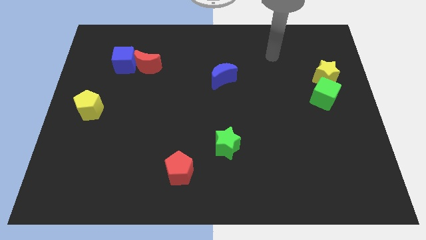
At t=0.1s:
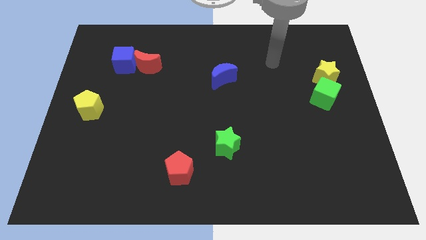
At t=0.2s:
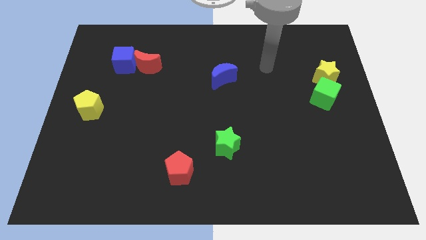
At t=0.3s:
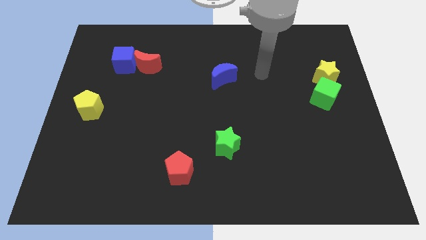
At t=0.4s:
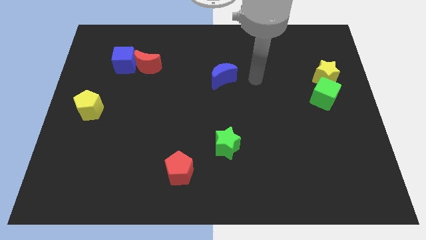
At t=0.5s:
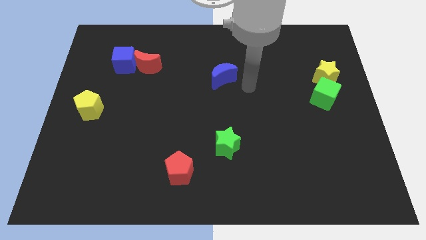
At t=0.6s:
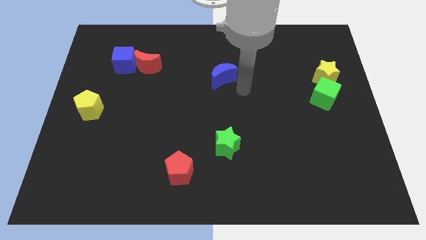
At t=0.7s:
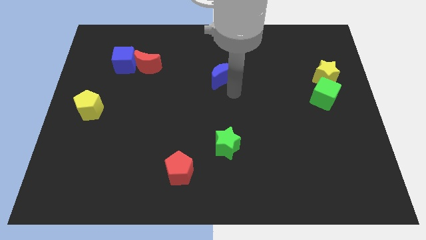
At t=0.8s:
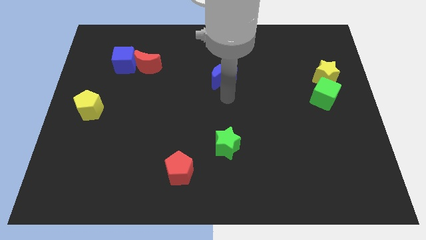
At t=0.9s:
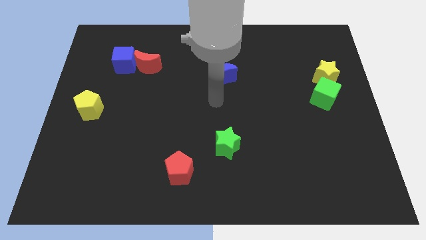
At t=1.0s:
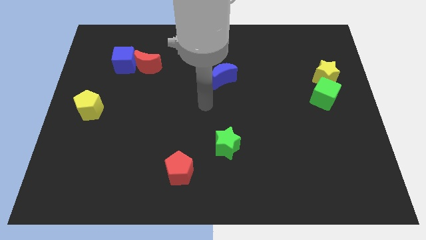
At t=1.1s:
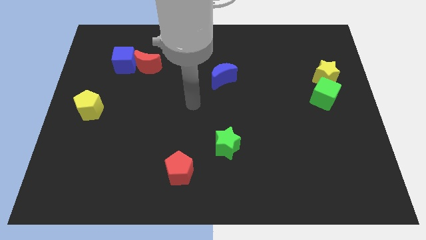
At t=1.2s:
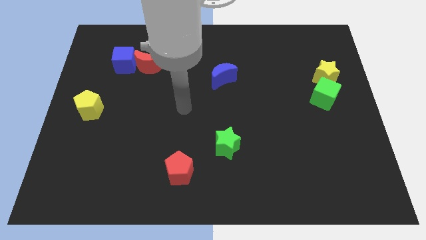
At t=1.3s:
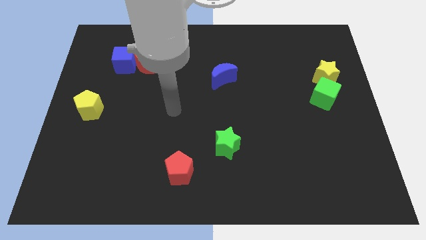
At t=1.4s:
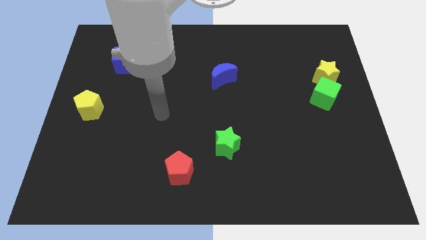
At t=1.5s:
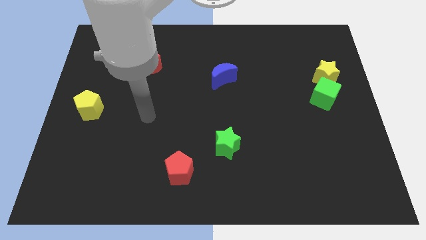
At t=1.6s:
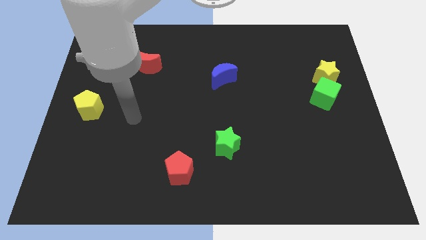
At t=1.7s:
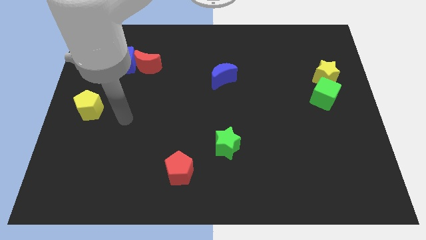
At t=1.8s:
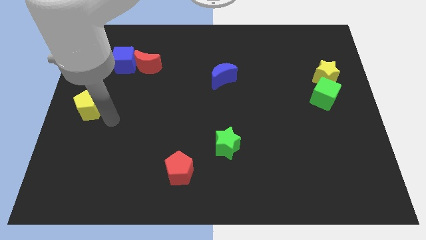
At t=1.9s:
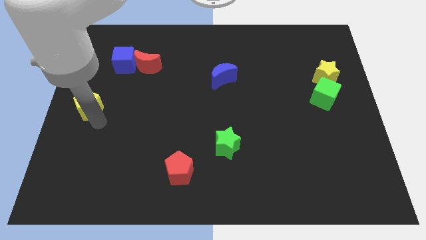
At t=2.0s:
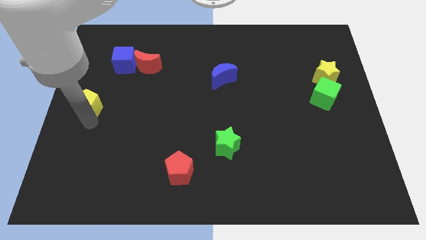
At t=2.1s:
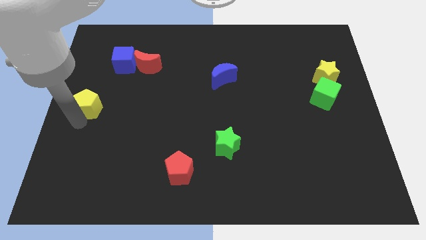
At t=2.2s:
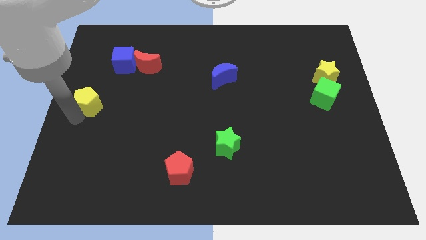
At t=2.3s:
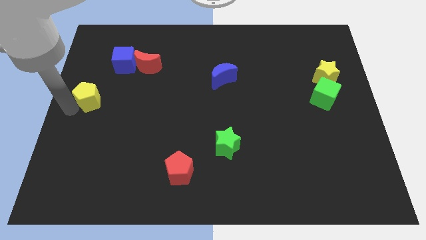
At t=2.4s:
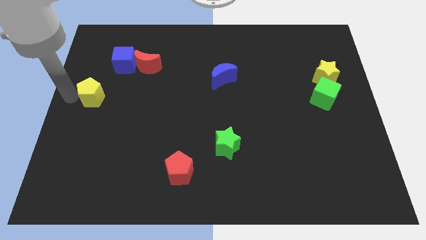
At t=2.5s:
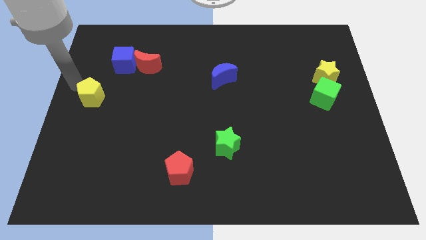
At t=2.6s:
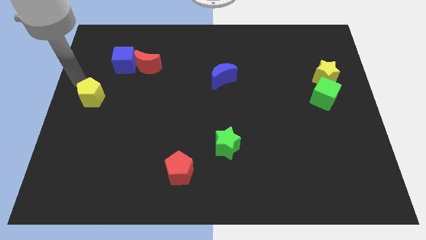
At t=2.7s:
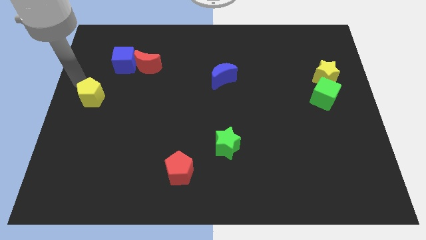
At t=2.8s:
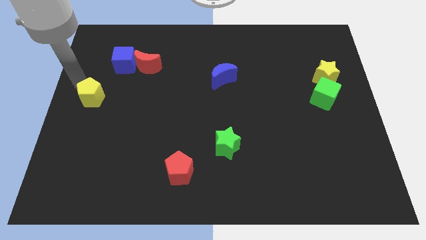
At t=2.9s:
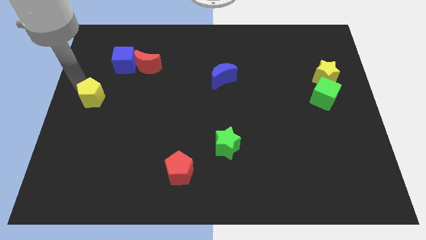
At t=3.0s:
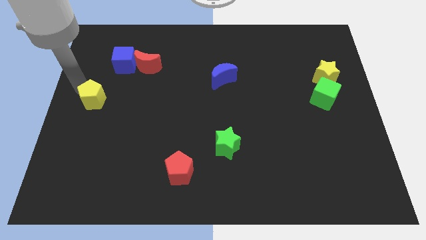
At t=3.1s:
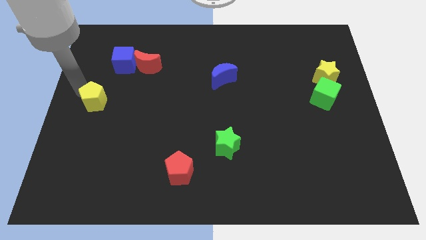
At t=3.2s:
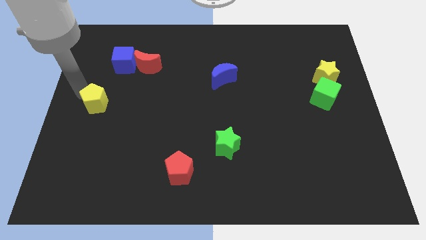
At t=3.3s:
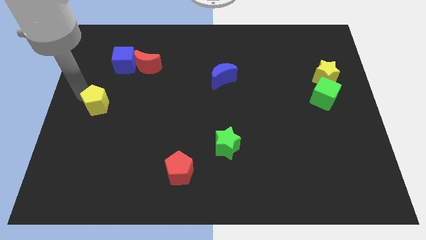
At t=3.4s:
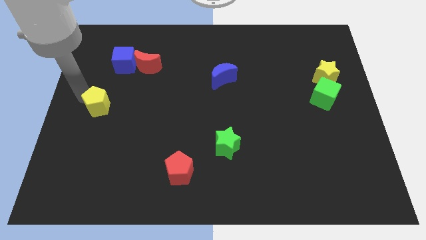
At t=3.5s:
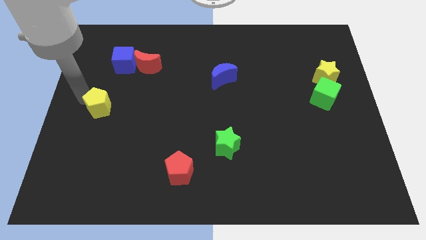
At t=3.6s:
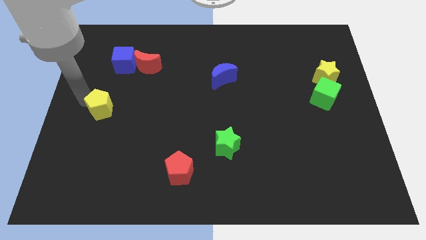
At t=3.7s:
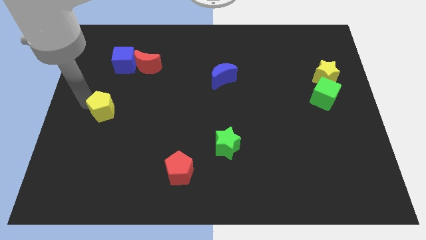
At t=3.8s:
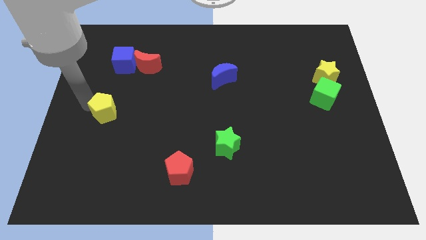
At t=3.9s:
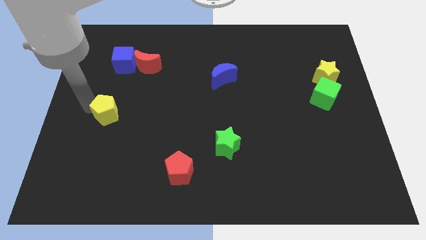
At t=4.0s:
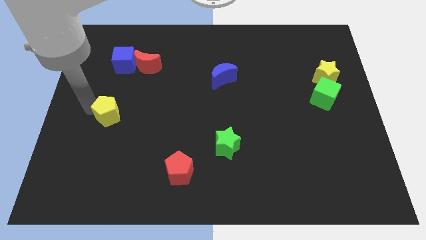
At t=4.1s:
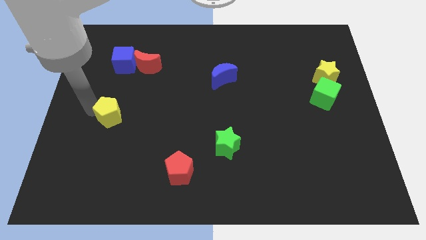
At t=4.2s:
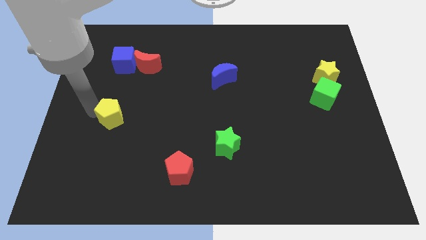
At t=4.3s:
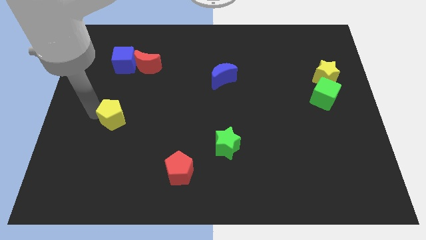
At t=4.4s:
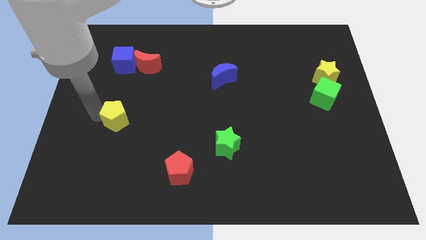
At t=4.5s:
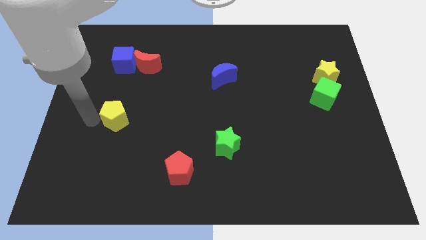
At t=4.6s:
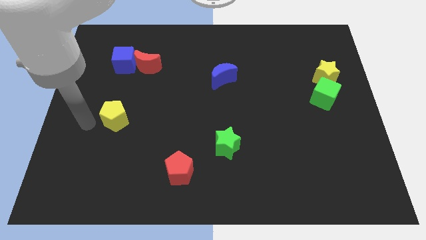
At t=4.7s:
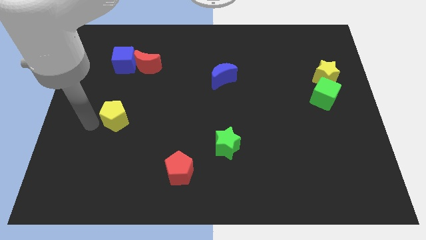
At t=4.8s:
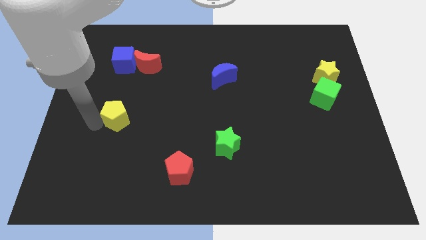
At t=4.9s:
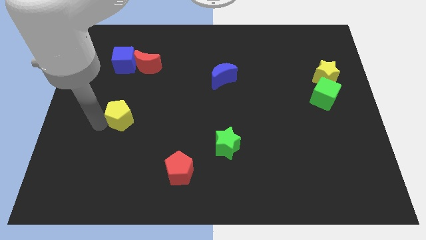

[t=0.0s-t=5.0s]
slightly move the yellow pentagon to the right

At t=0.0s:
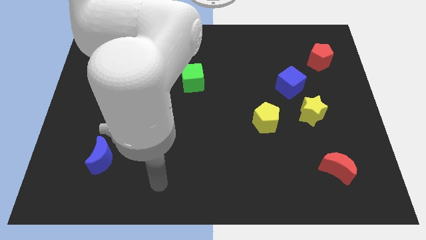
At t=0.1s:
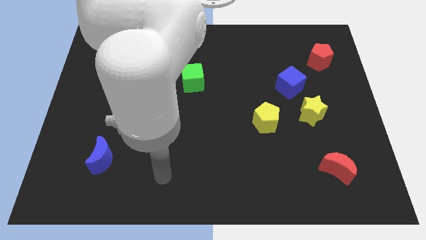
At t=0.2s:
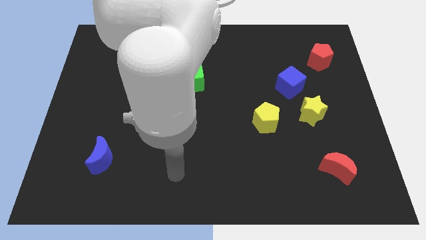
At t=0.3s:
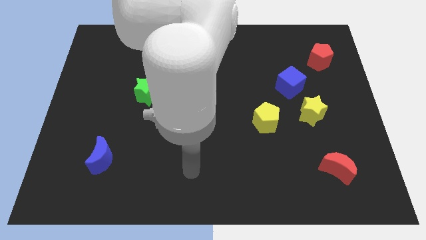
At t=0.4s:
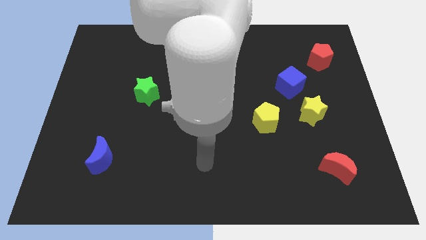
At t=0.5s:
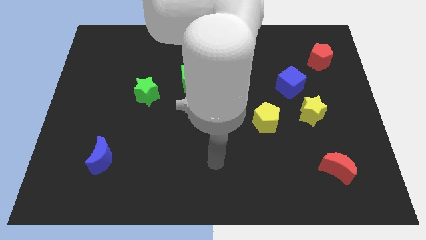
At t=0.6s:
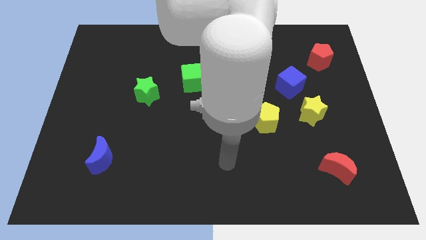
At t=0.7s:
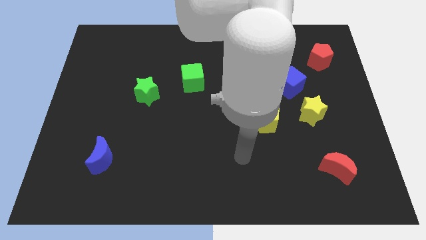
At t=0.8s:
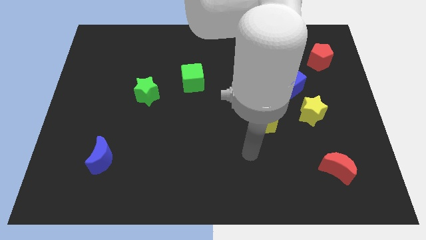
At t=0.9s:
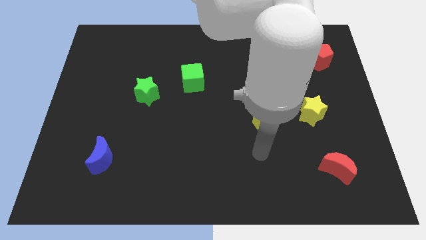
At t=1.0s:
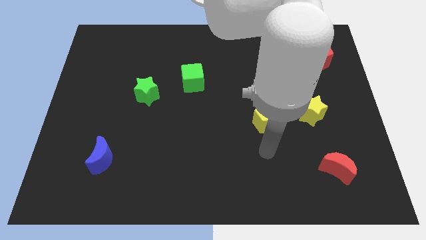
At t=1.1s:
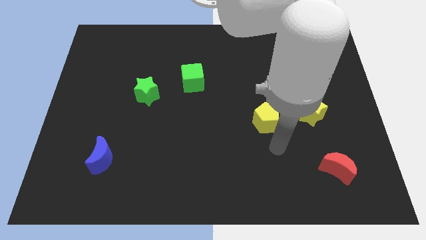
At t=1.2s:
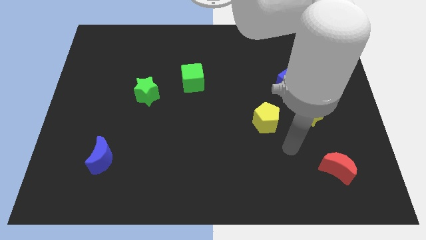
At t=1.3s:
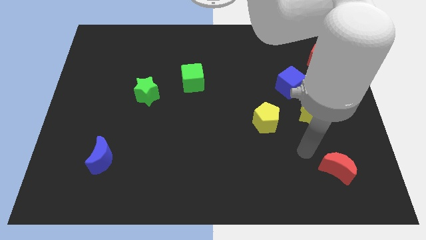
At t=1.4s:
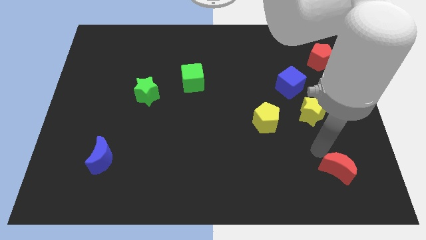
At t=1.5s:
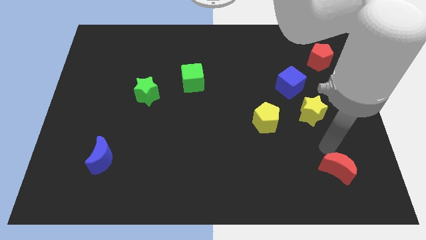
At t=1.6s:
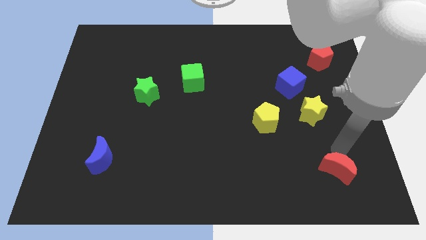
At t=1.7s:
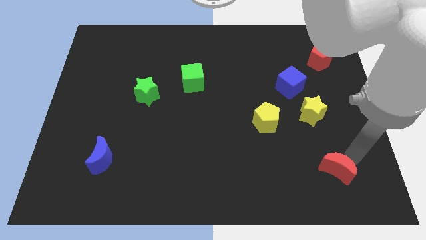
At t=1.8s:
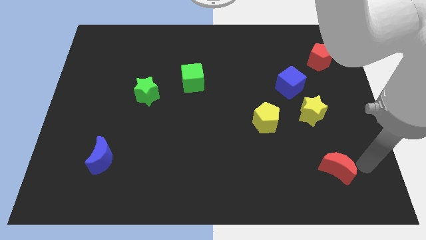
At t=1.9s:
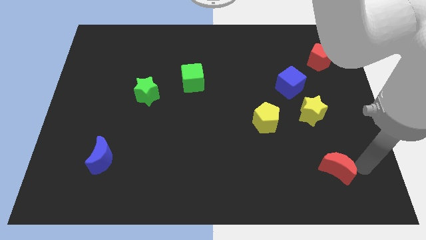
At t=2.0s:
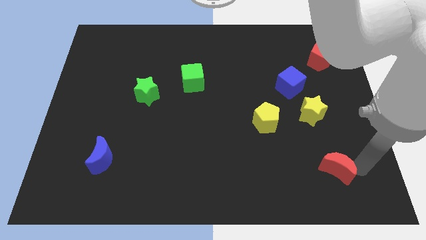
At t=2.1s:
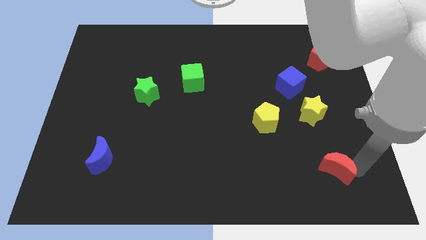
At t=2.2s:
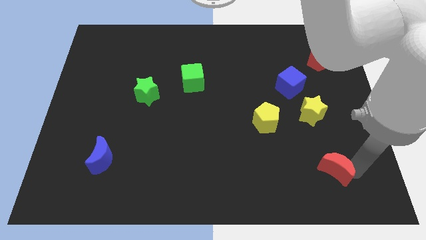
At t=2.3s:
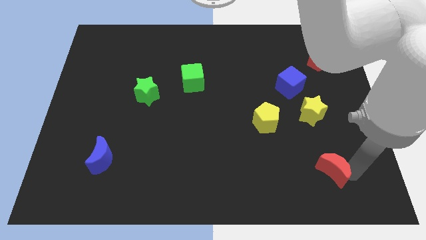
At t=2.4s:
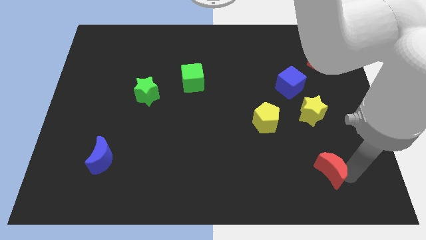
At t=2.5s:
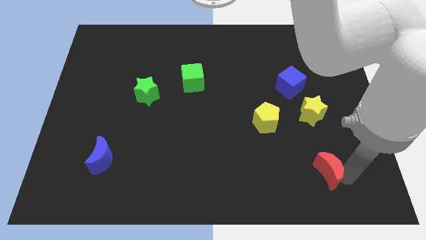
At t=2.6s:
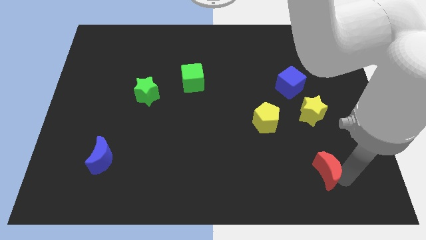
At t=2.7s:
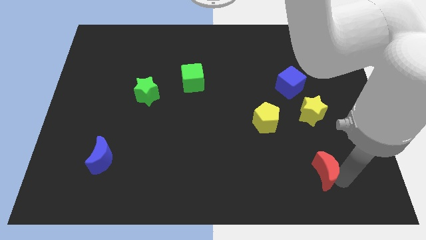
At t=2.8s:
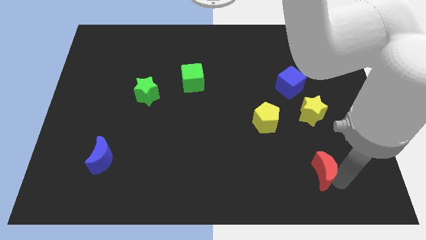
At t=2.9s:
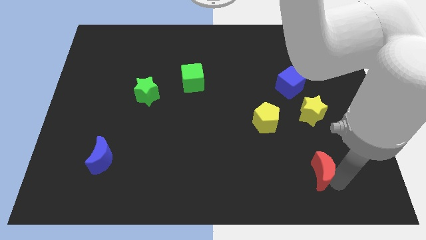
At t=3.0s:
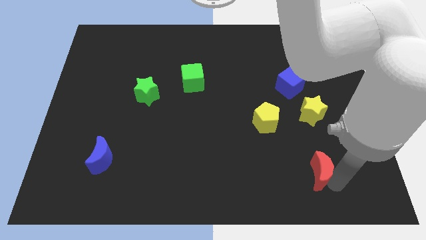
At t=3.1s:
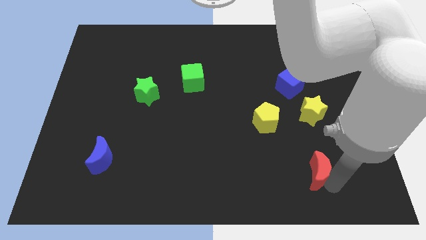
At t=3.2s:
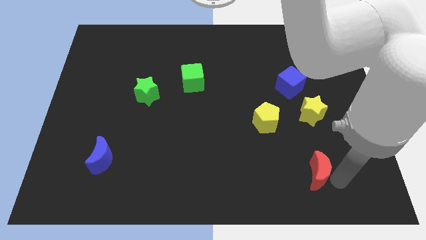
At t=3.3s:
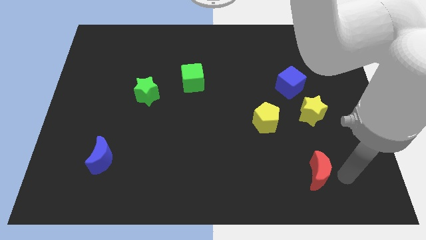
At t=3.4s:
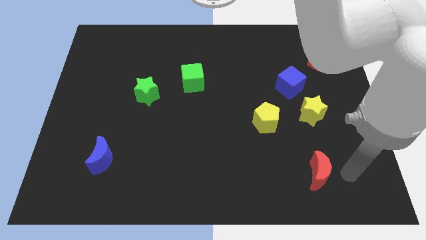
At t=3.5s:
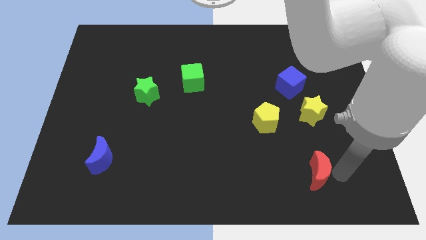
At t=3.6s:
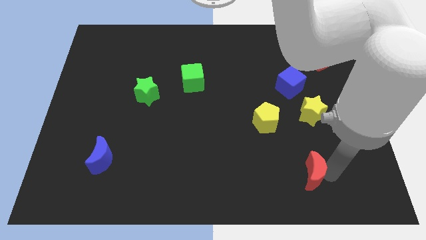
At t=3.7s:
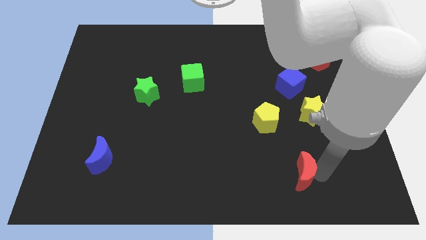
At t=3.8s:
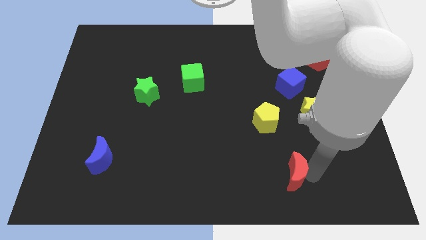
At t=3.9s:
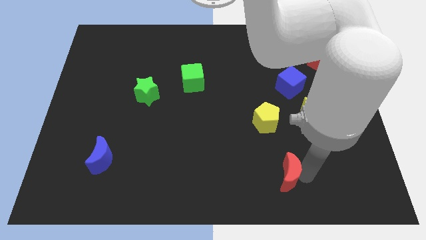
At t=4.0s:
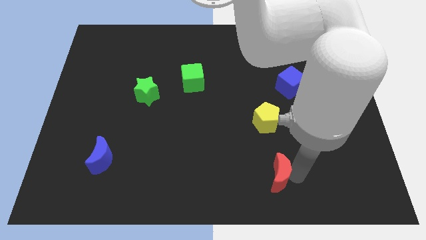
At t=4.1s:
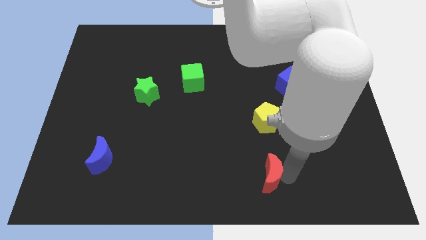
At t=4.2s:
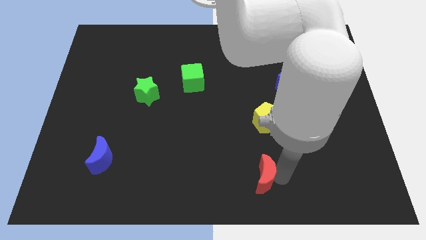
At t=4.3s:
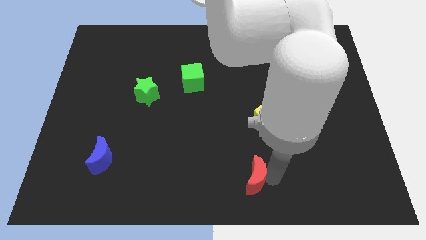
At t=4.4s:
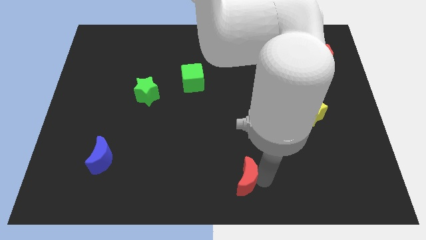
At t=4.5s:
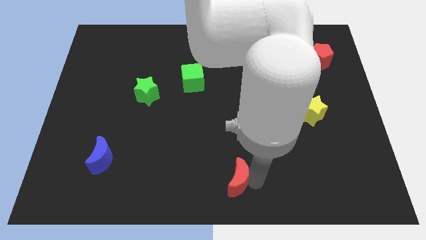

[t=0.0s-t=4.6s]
move the red moon to the left
